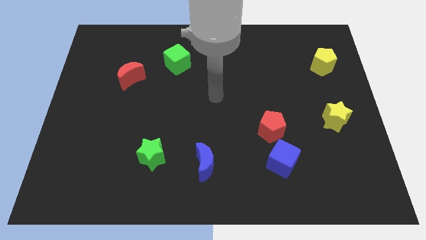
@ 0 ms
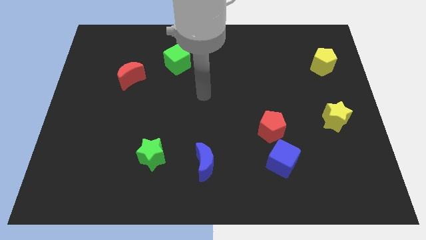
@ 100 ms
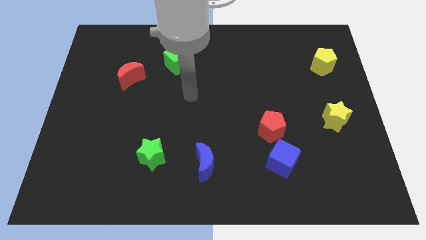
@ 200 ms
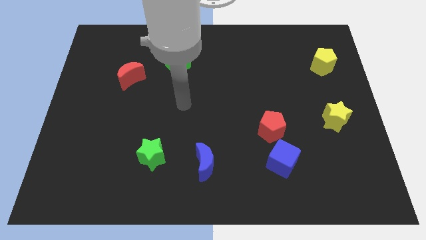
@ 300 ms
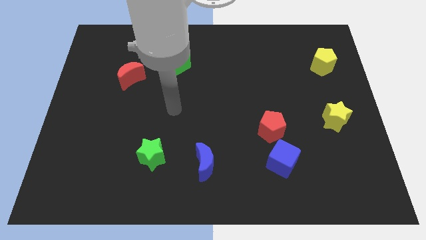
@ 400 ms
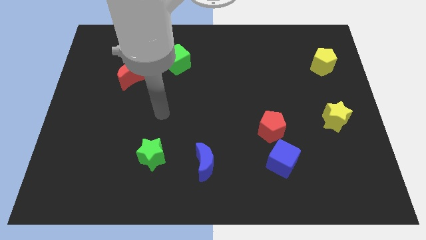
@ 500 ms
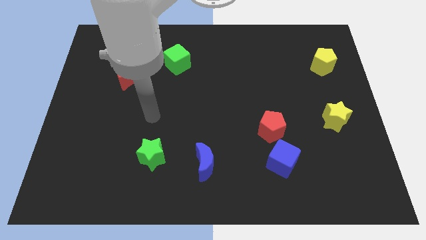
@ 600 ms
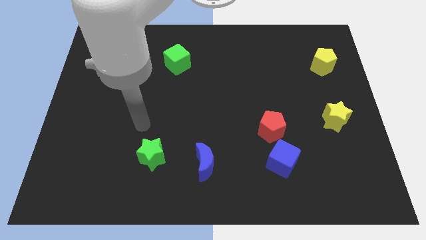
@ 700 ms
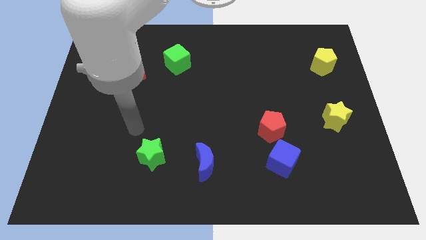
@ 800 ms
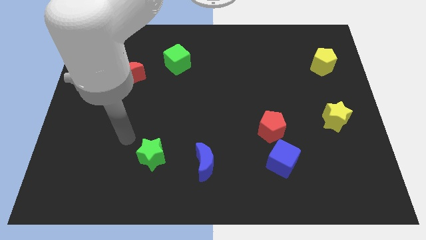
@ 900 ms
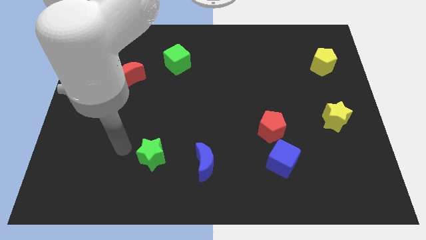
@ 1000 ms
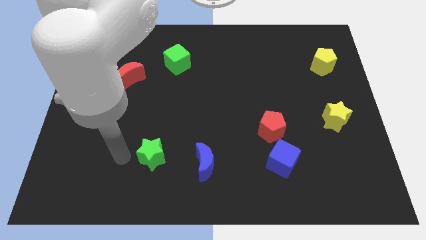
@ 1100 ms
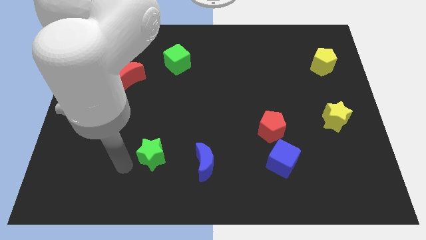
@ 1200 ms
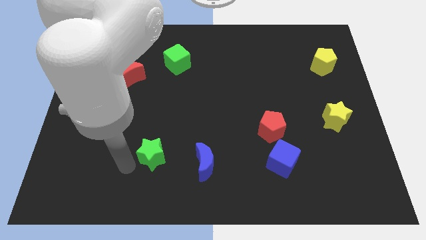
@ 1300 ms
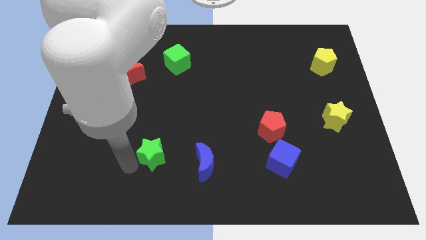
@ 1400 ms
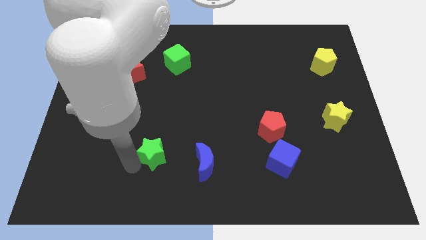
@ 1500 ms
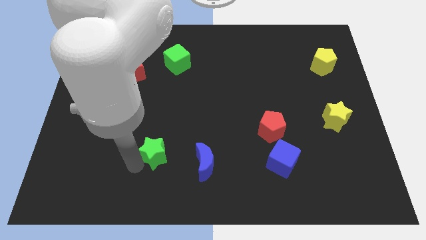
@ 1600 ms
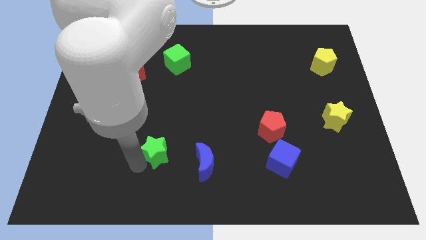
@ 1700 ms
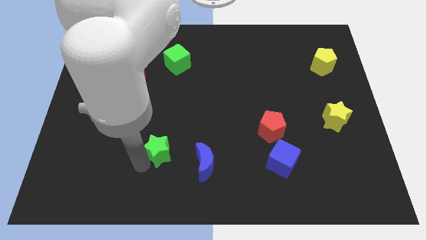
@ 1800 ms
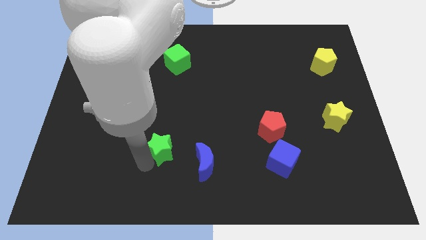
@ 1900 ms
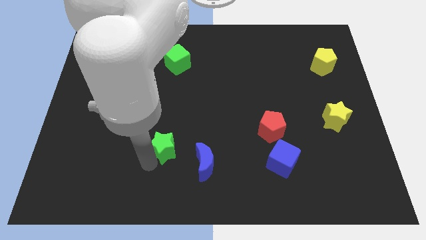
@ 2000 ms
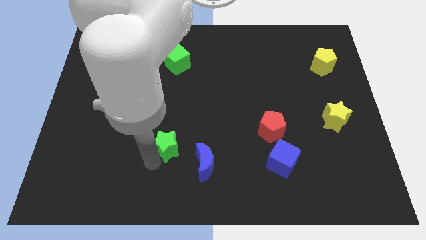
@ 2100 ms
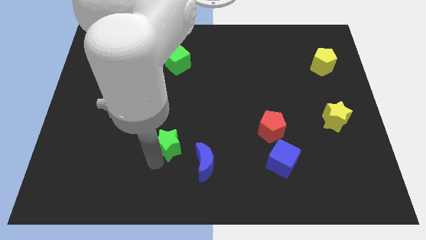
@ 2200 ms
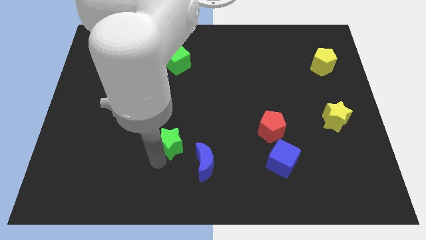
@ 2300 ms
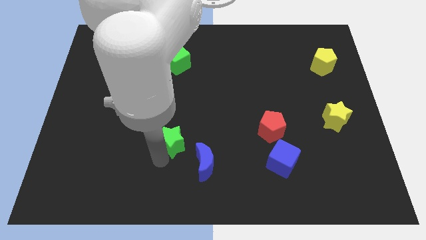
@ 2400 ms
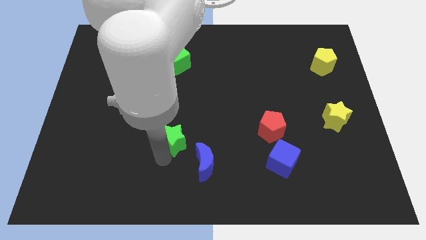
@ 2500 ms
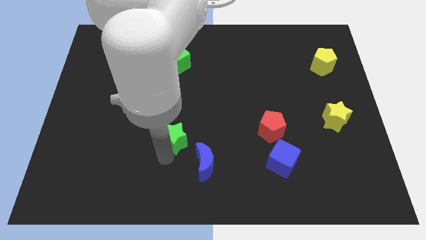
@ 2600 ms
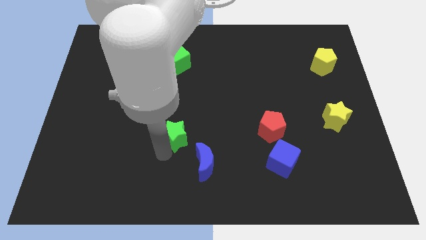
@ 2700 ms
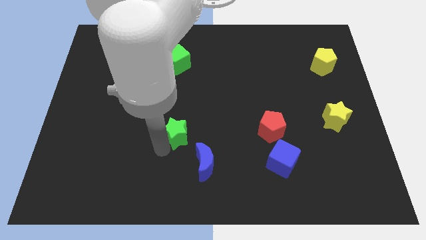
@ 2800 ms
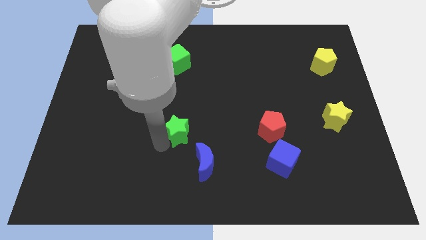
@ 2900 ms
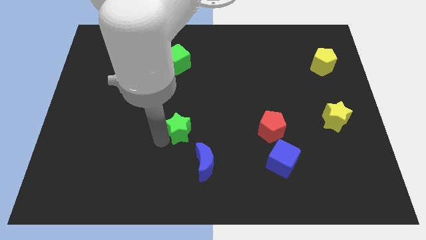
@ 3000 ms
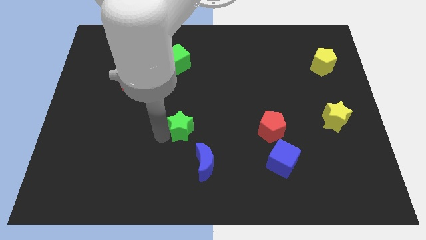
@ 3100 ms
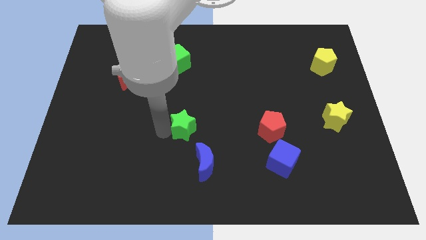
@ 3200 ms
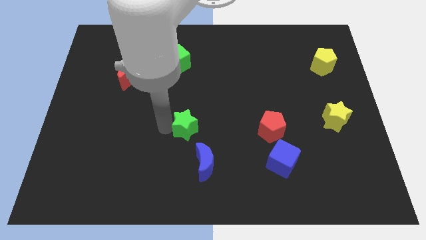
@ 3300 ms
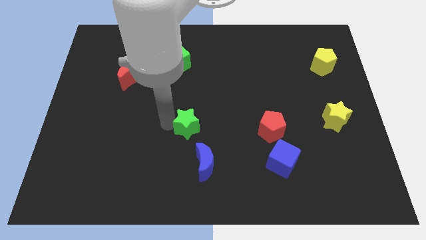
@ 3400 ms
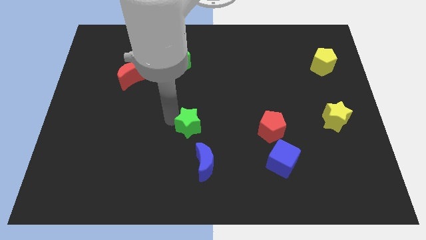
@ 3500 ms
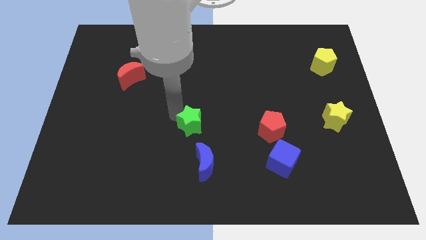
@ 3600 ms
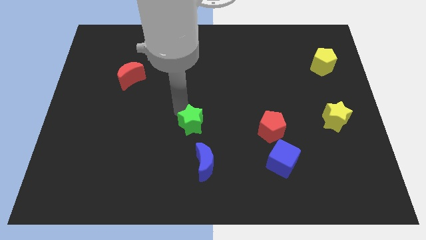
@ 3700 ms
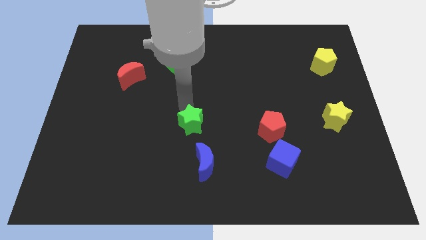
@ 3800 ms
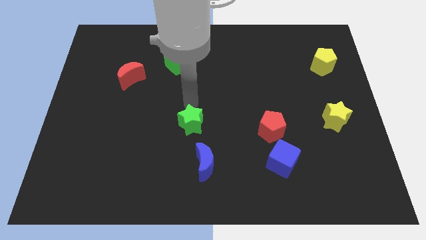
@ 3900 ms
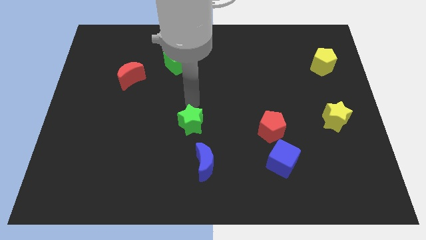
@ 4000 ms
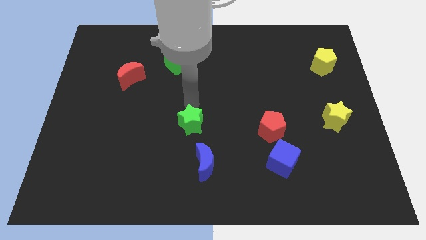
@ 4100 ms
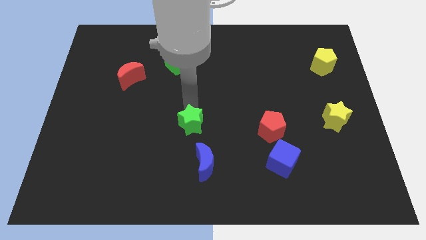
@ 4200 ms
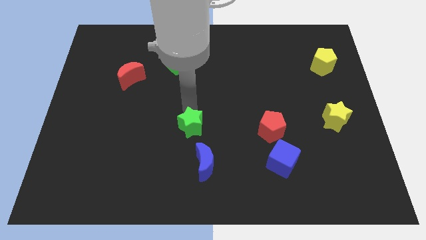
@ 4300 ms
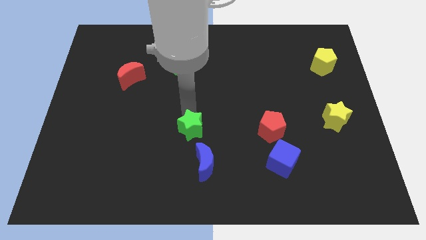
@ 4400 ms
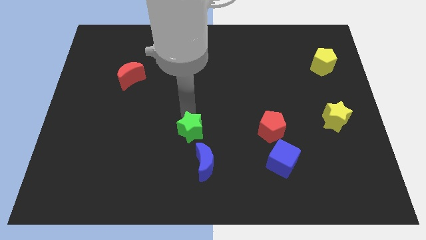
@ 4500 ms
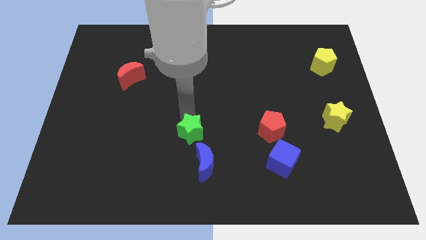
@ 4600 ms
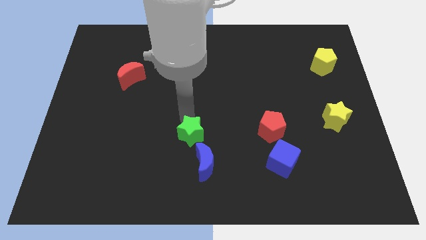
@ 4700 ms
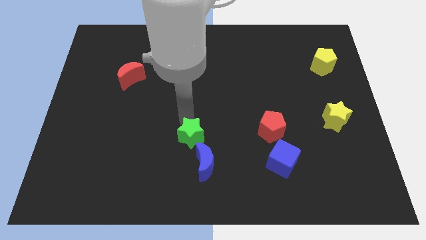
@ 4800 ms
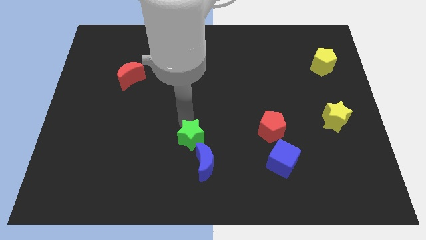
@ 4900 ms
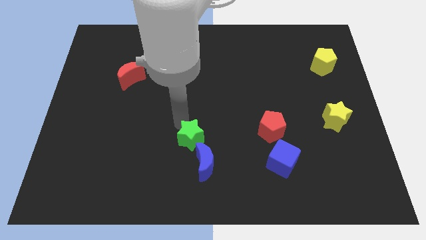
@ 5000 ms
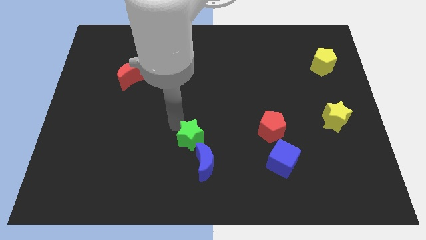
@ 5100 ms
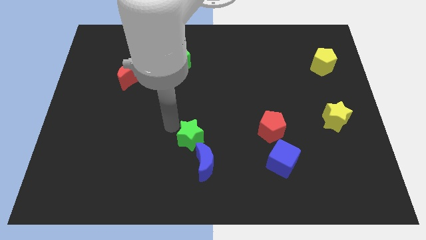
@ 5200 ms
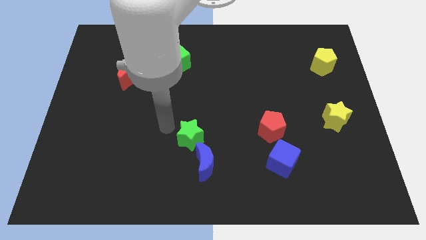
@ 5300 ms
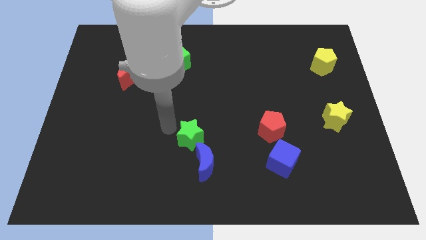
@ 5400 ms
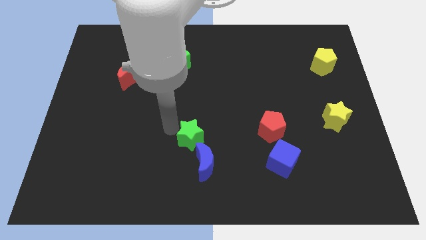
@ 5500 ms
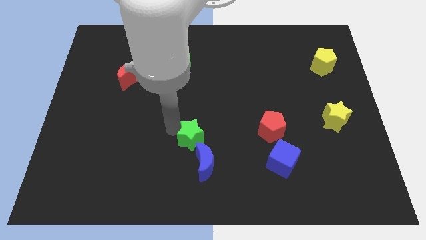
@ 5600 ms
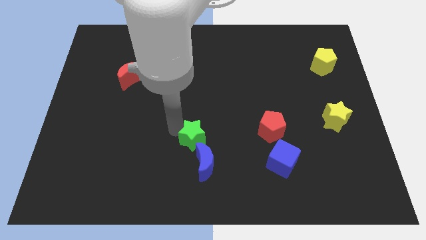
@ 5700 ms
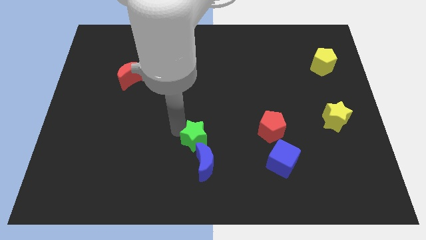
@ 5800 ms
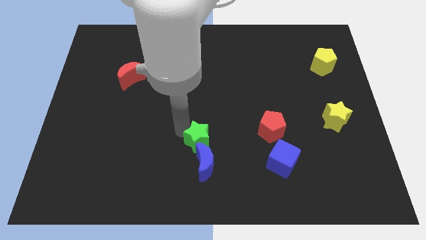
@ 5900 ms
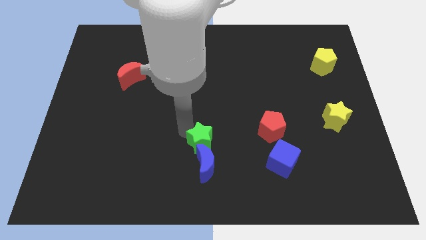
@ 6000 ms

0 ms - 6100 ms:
put the green star to the top right of the blue moon

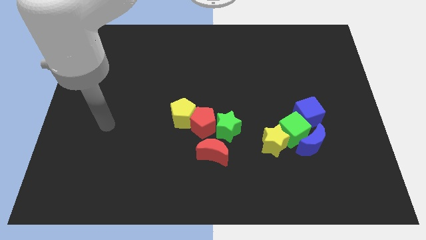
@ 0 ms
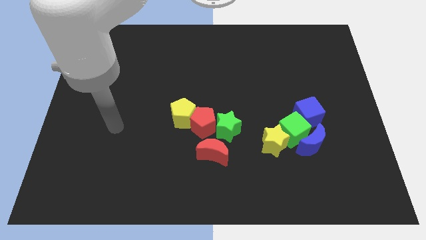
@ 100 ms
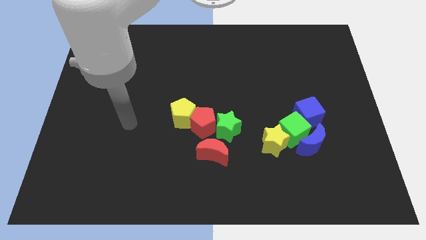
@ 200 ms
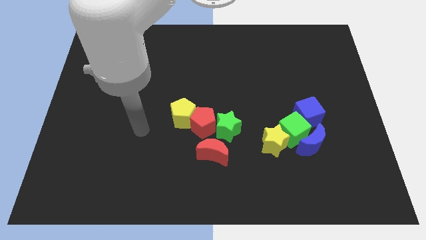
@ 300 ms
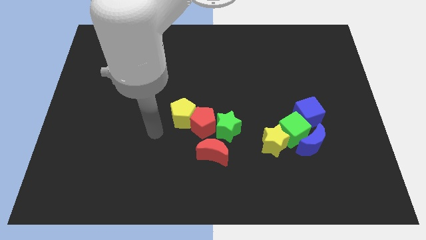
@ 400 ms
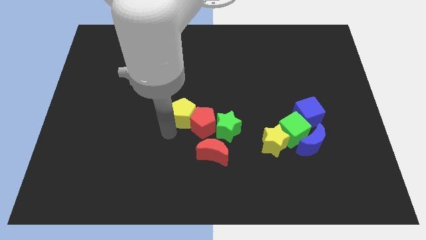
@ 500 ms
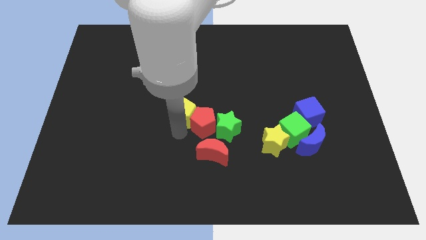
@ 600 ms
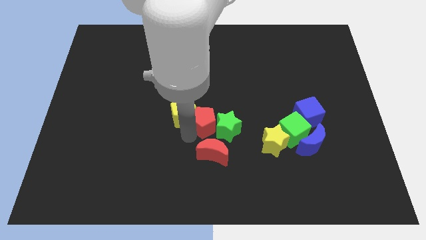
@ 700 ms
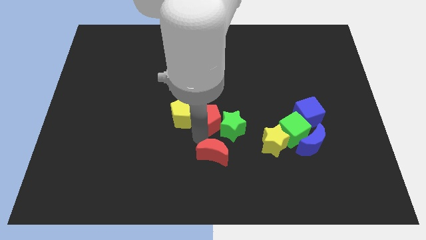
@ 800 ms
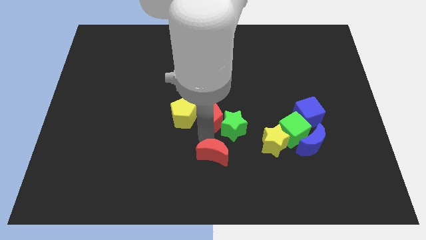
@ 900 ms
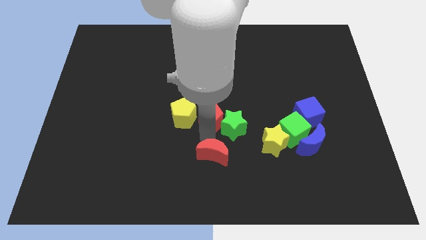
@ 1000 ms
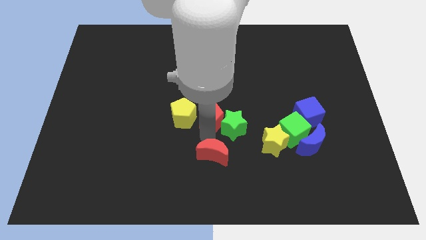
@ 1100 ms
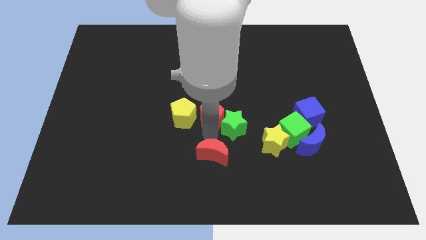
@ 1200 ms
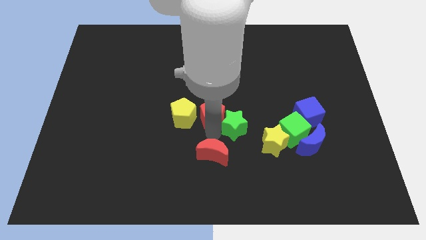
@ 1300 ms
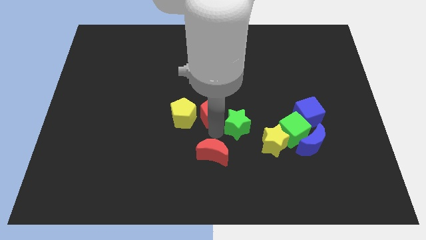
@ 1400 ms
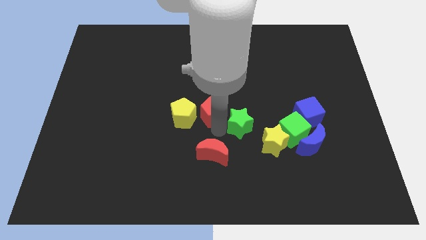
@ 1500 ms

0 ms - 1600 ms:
slide the green star left of the blue cube
